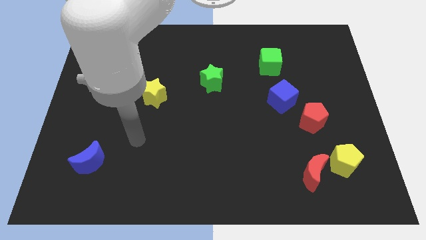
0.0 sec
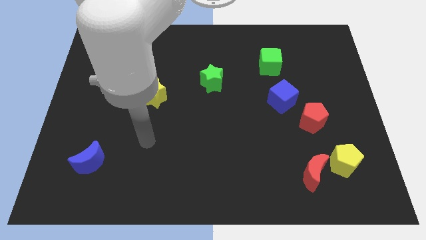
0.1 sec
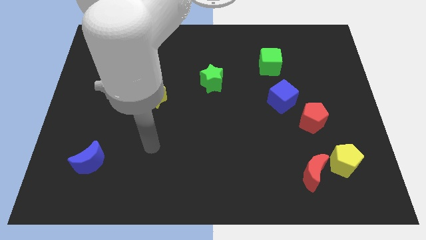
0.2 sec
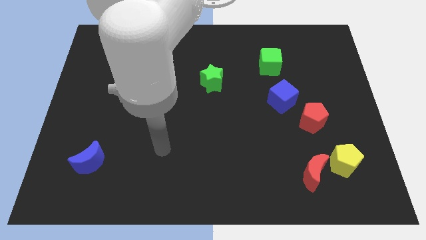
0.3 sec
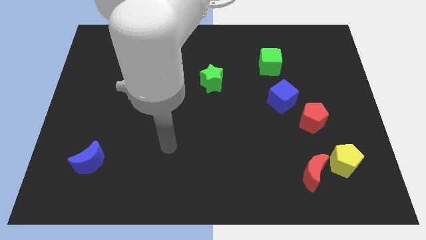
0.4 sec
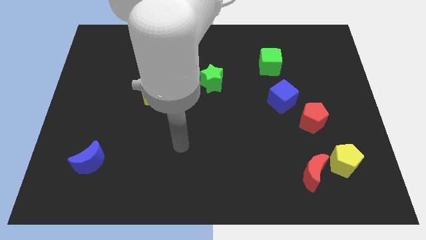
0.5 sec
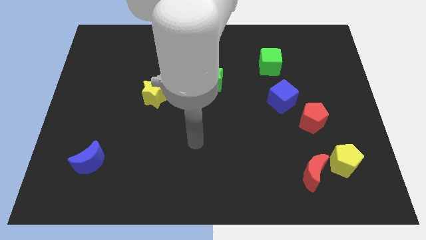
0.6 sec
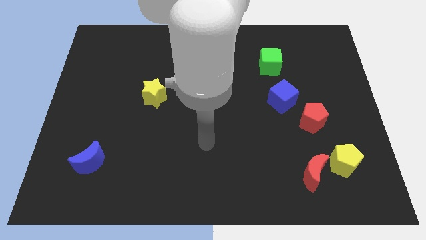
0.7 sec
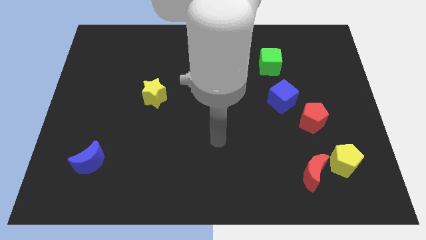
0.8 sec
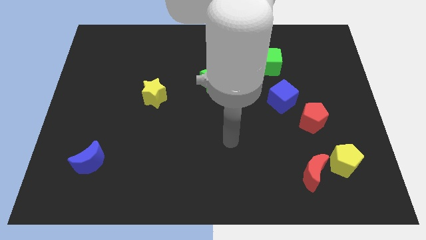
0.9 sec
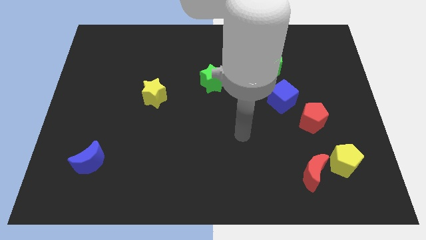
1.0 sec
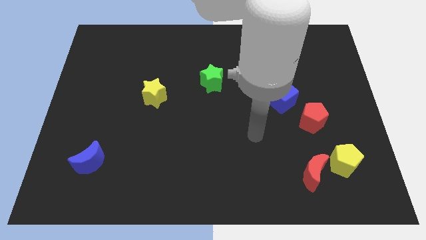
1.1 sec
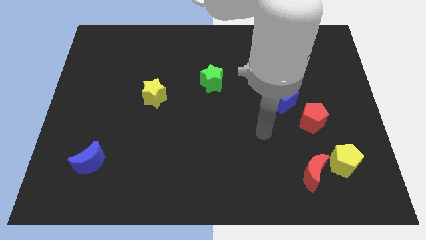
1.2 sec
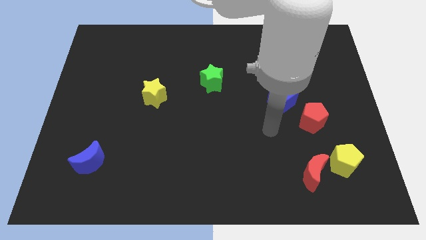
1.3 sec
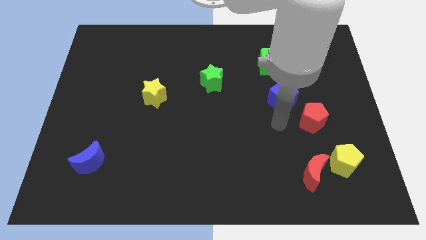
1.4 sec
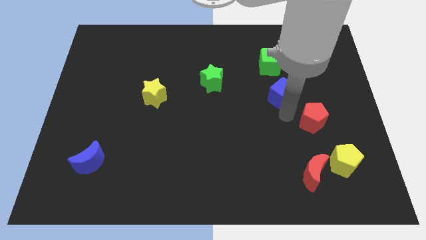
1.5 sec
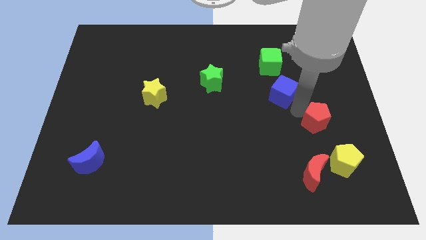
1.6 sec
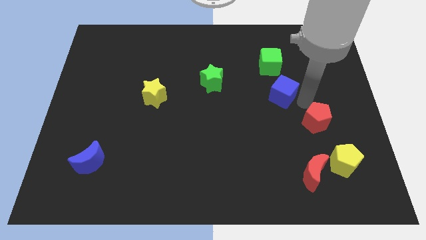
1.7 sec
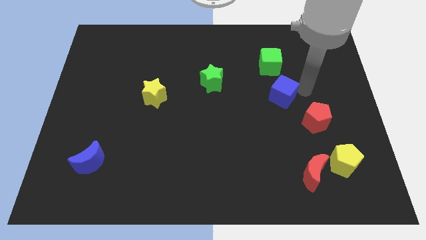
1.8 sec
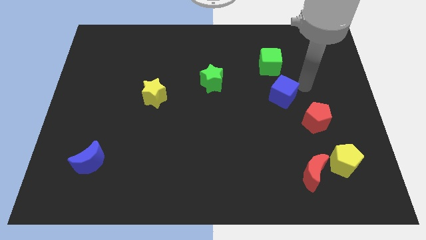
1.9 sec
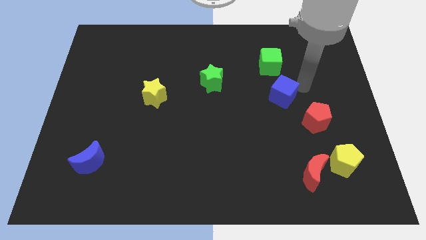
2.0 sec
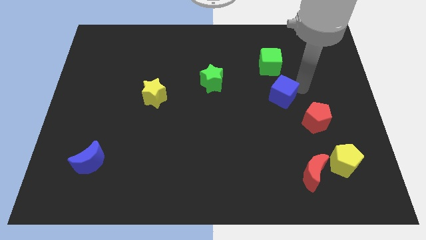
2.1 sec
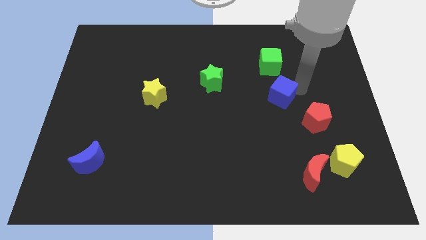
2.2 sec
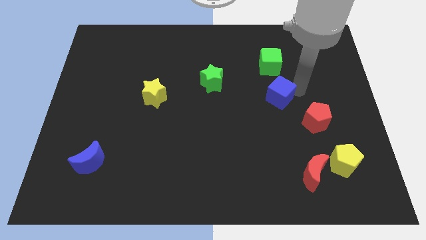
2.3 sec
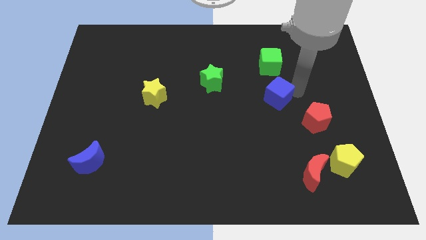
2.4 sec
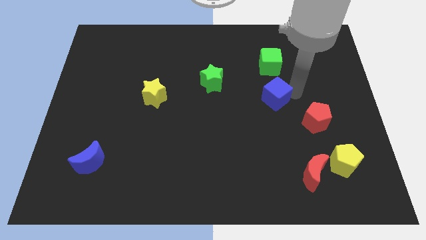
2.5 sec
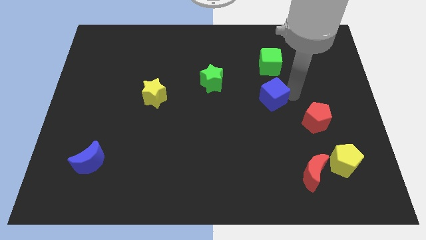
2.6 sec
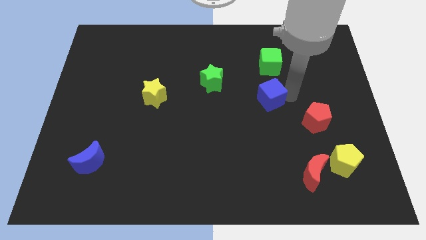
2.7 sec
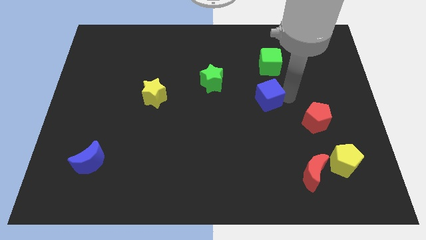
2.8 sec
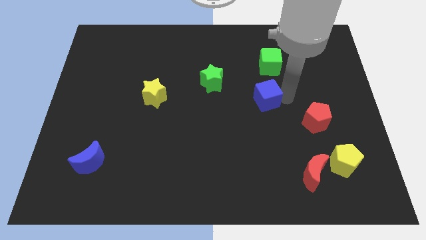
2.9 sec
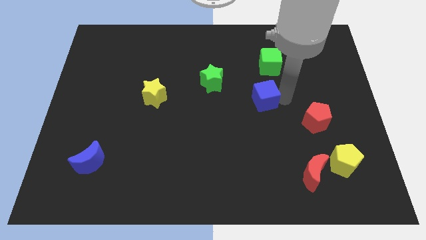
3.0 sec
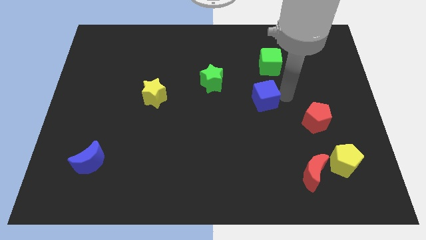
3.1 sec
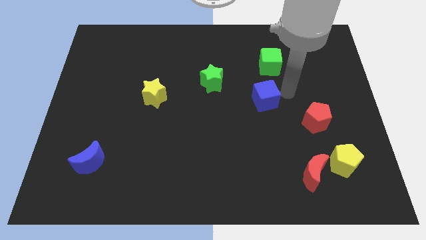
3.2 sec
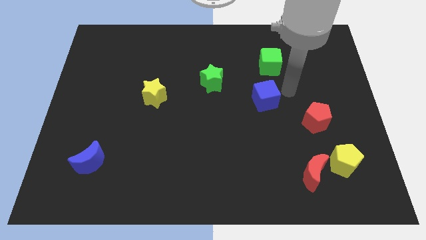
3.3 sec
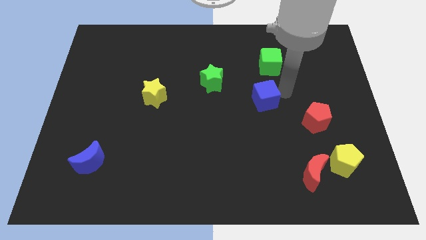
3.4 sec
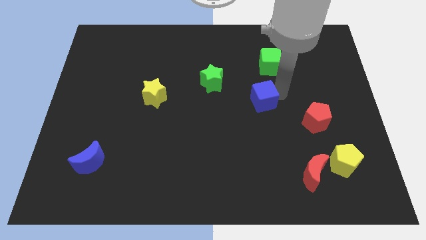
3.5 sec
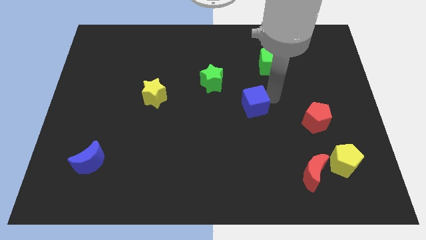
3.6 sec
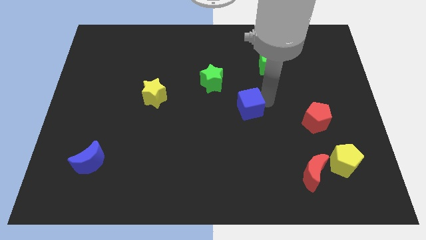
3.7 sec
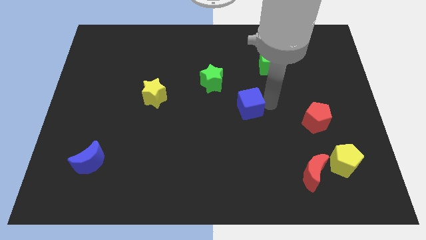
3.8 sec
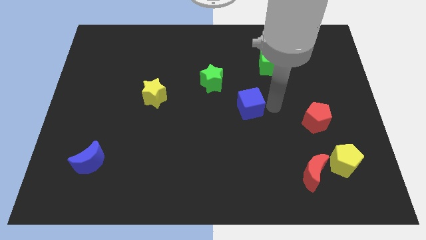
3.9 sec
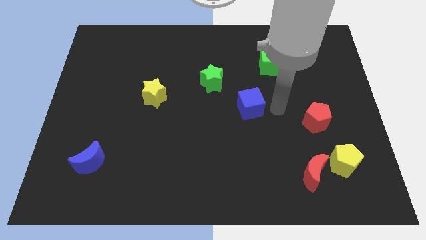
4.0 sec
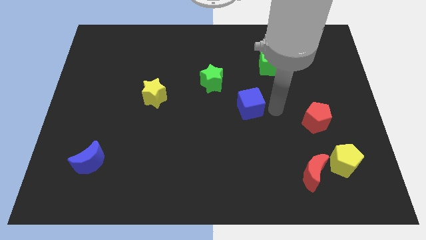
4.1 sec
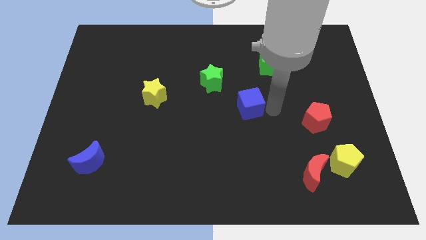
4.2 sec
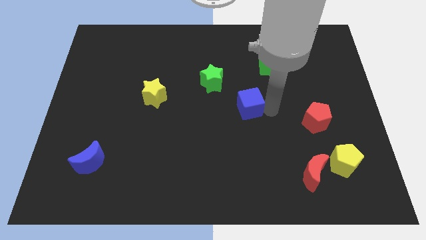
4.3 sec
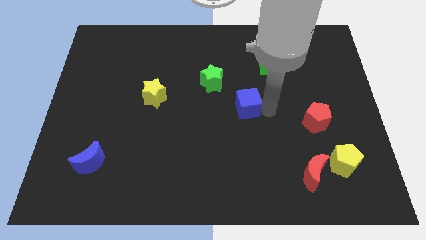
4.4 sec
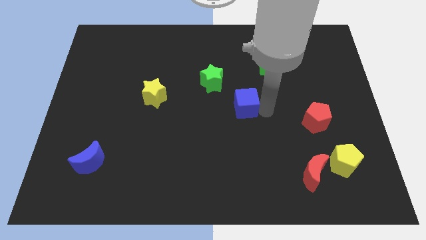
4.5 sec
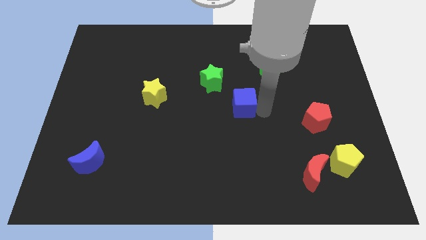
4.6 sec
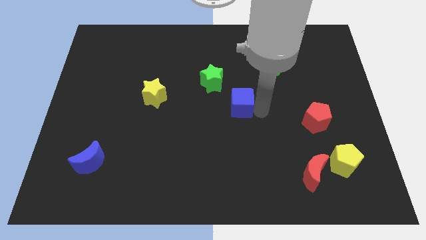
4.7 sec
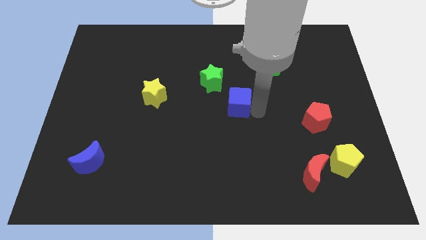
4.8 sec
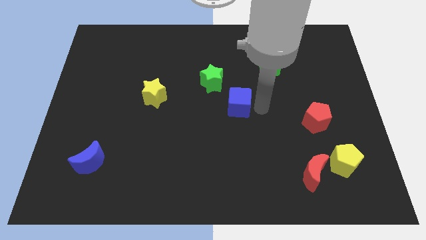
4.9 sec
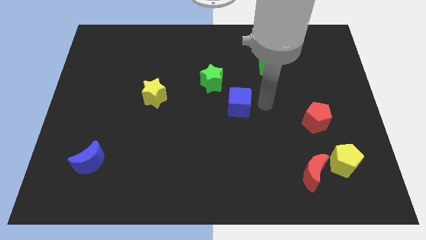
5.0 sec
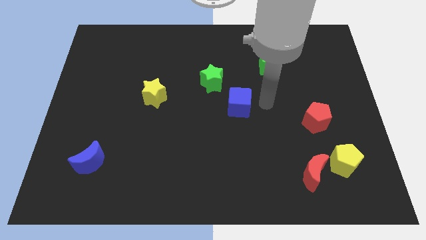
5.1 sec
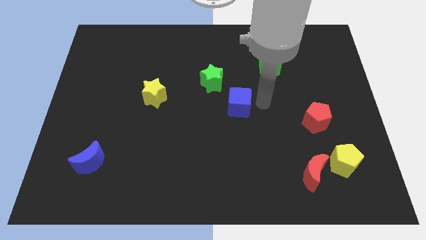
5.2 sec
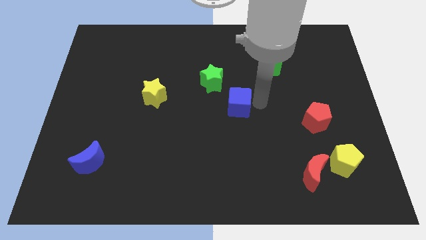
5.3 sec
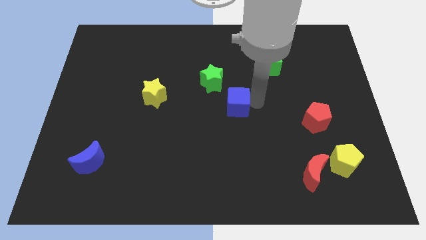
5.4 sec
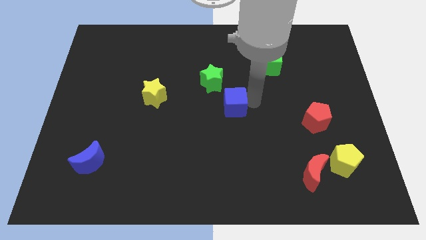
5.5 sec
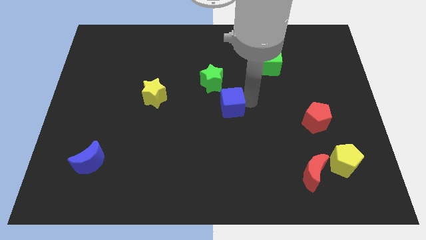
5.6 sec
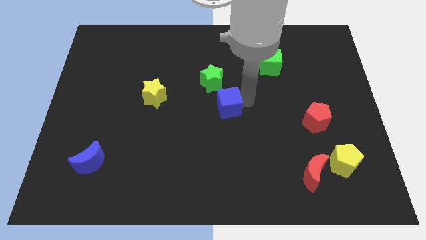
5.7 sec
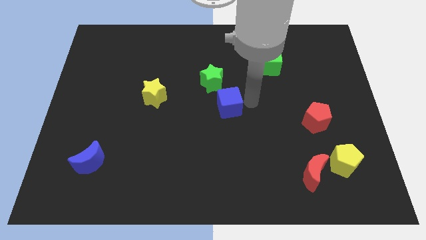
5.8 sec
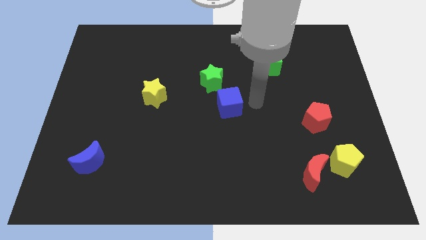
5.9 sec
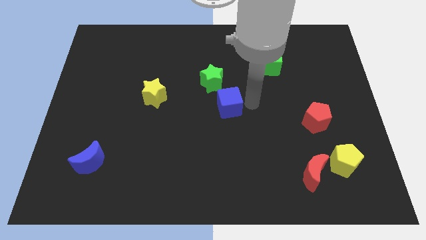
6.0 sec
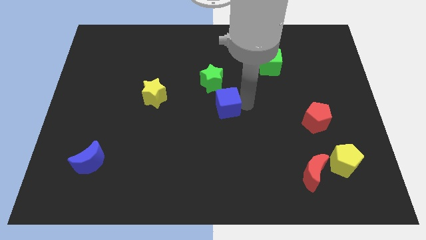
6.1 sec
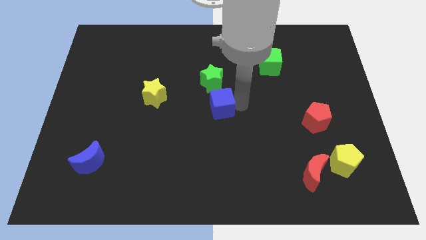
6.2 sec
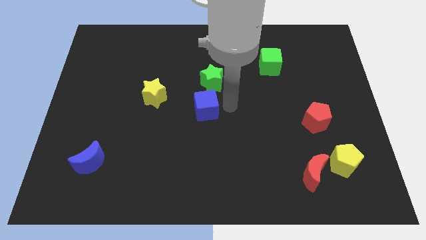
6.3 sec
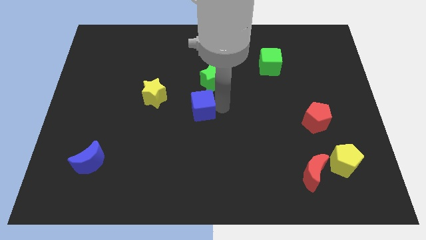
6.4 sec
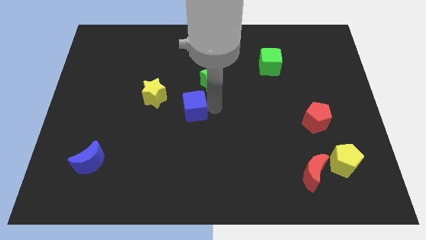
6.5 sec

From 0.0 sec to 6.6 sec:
move the blue cube to the bottom right side of the yellow star

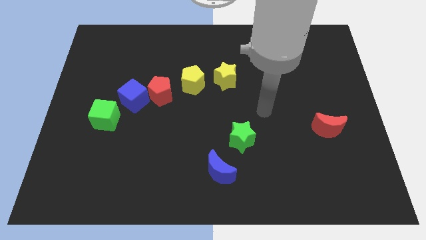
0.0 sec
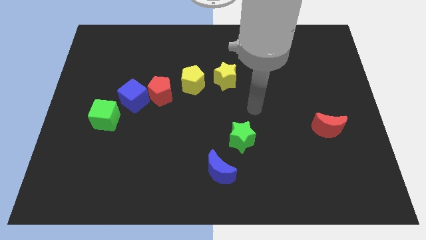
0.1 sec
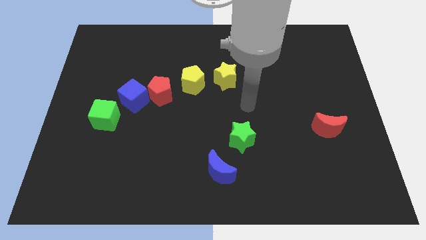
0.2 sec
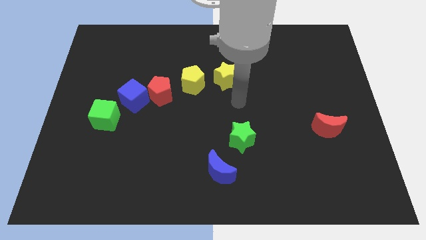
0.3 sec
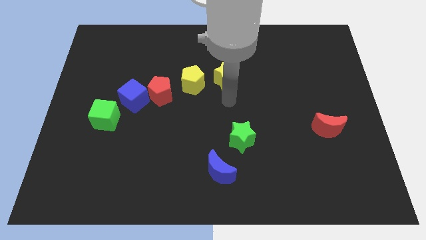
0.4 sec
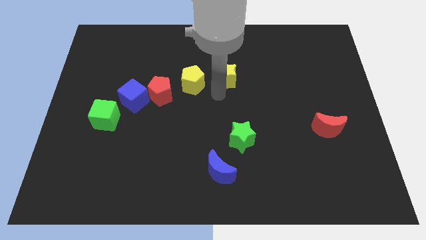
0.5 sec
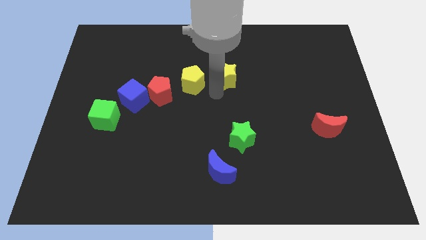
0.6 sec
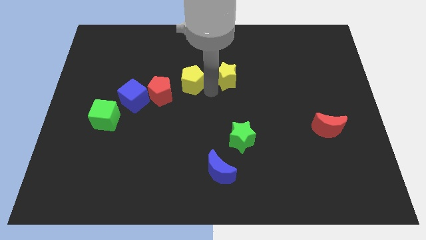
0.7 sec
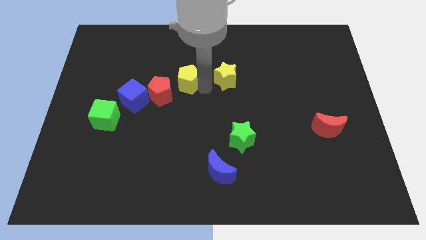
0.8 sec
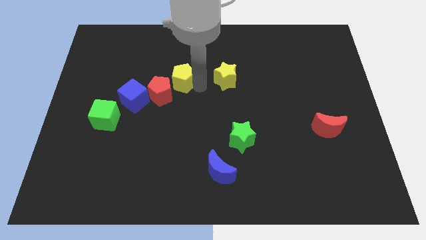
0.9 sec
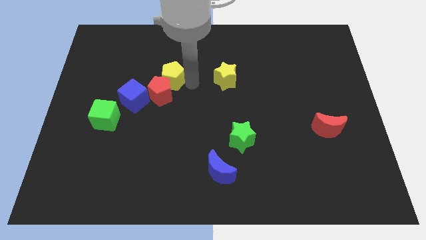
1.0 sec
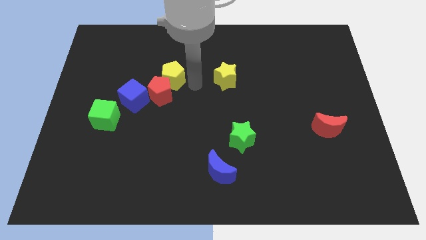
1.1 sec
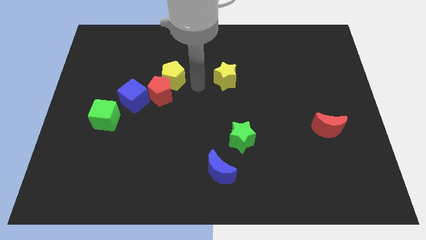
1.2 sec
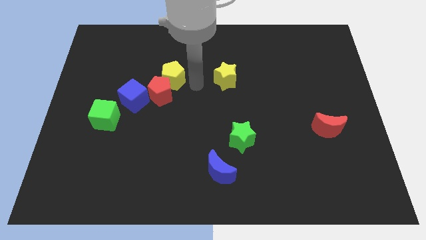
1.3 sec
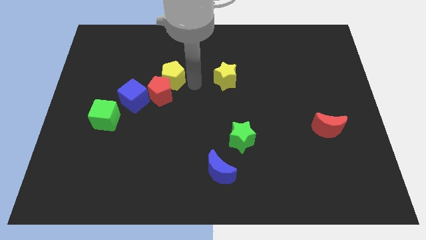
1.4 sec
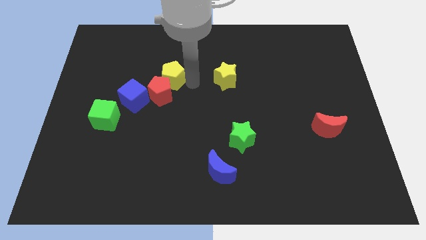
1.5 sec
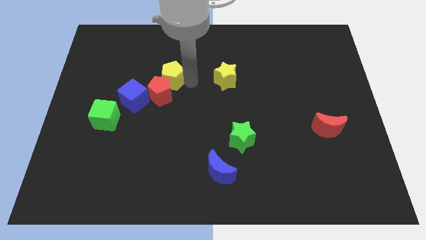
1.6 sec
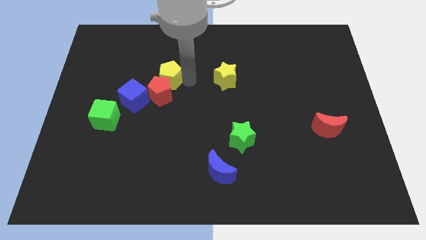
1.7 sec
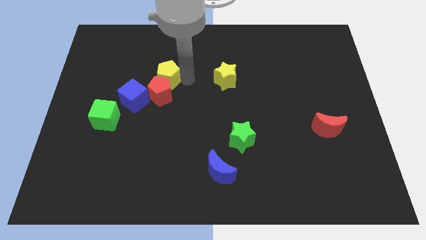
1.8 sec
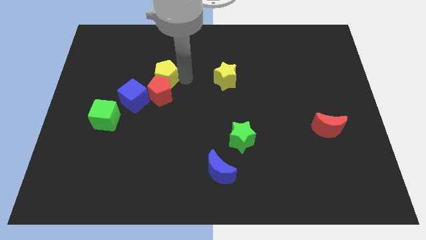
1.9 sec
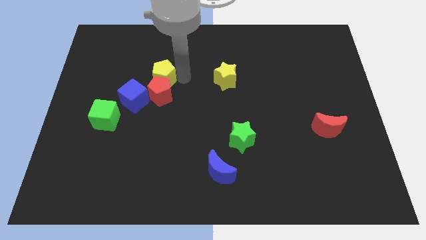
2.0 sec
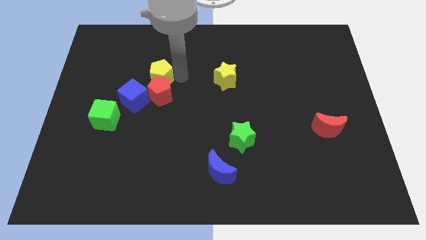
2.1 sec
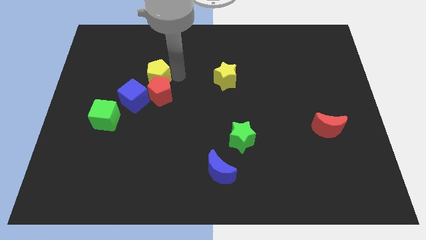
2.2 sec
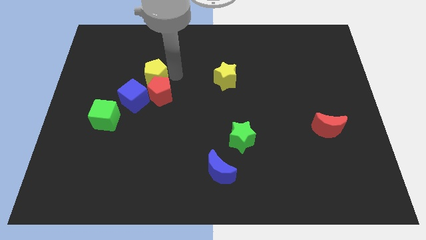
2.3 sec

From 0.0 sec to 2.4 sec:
move the yellow pentagon to the top of the blue cube
